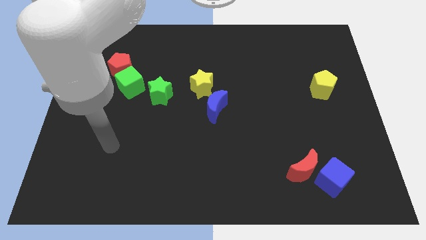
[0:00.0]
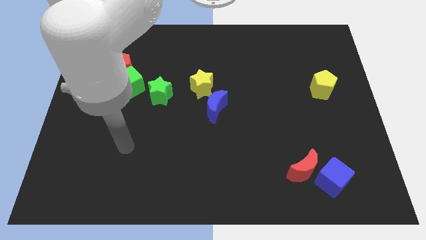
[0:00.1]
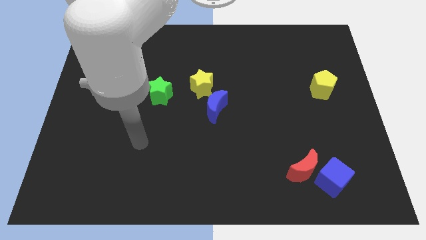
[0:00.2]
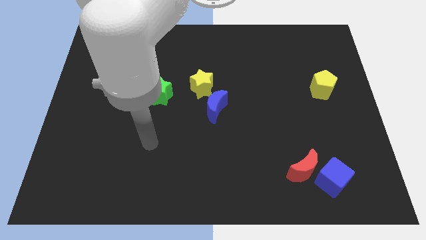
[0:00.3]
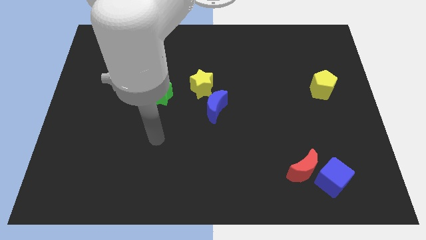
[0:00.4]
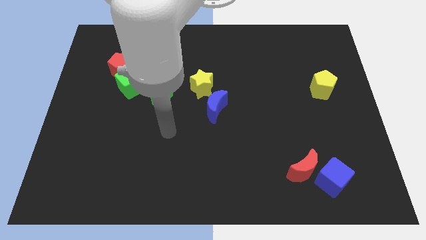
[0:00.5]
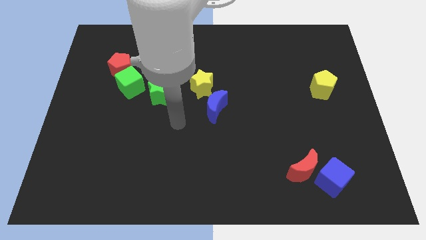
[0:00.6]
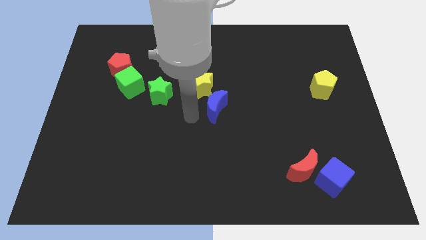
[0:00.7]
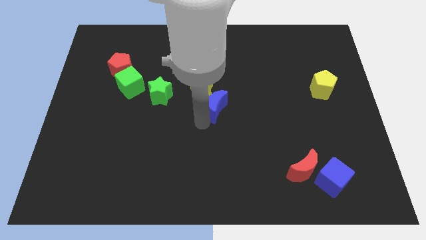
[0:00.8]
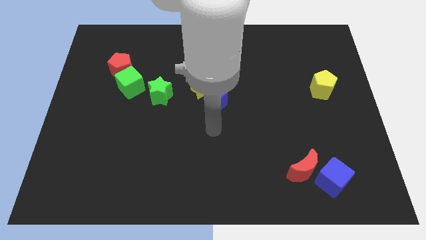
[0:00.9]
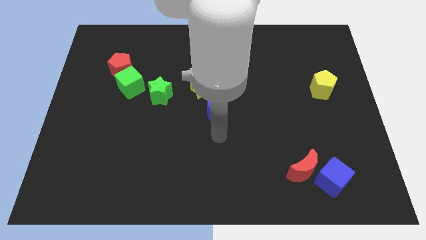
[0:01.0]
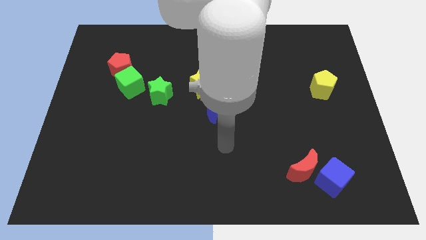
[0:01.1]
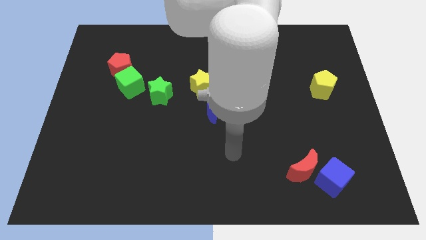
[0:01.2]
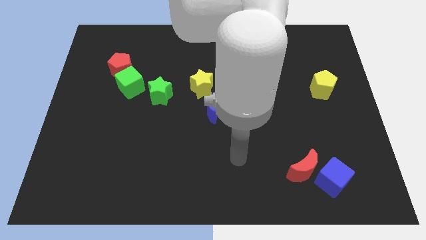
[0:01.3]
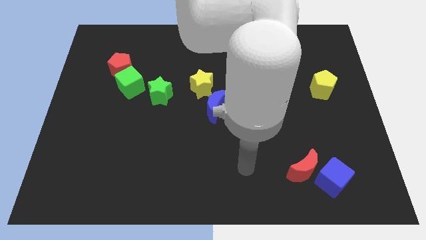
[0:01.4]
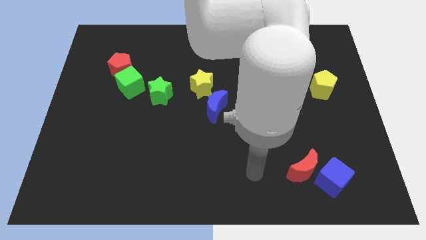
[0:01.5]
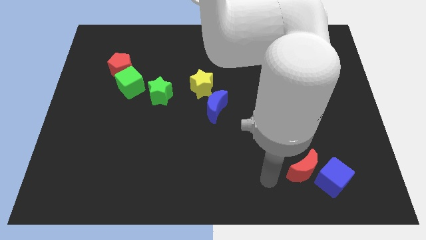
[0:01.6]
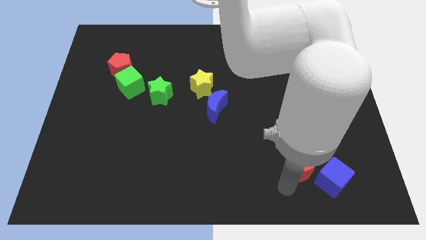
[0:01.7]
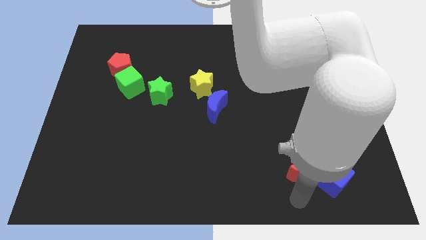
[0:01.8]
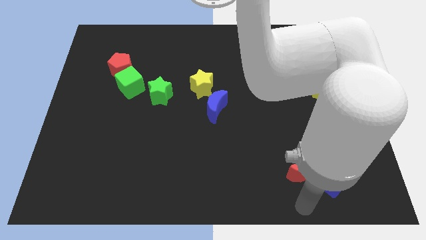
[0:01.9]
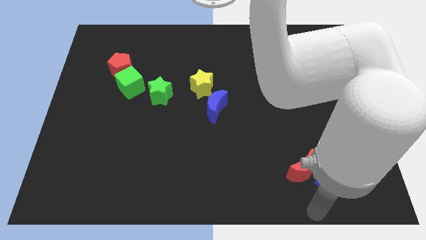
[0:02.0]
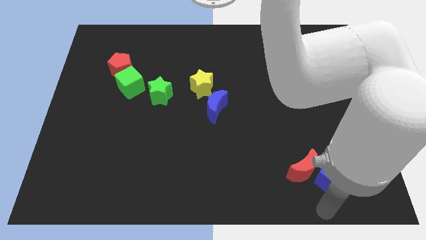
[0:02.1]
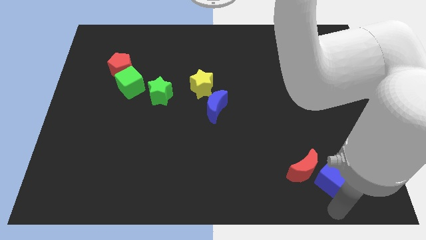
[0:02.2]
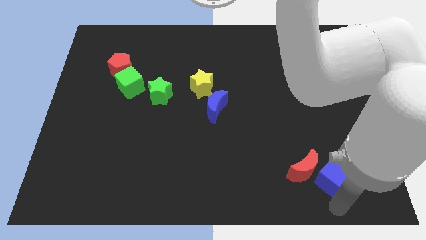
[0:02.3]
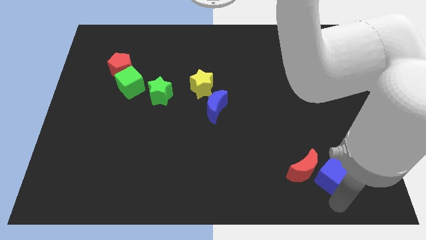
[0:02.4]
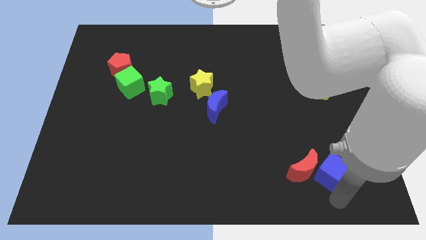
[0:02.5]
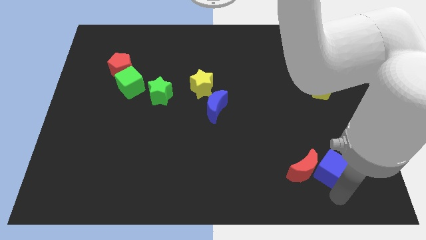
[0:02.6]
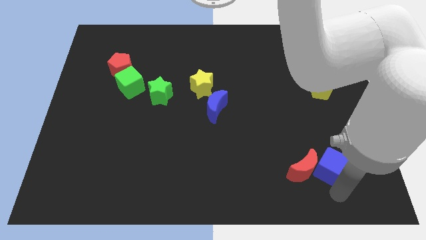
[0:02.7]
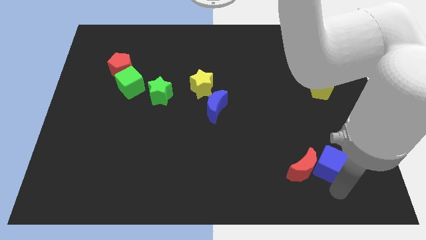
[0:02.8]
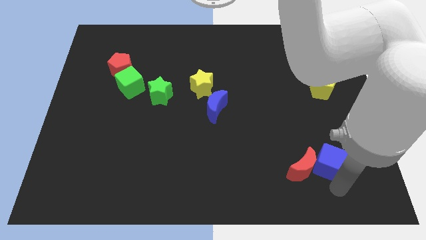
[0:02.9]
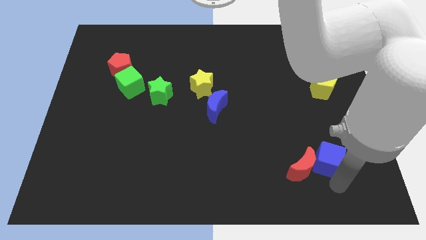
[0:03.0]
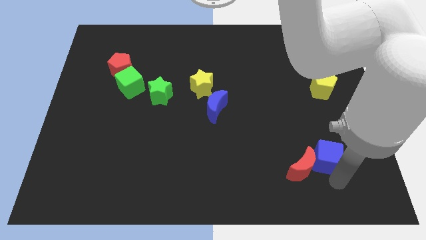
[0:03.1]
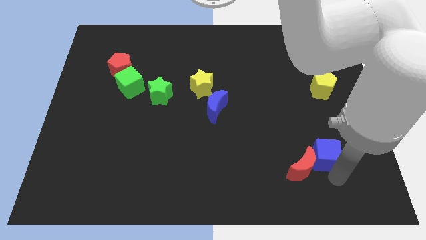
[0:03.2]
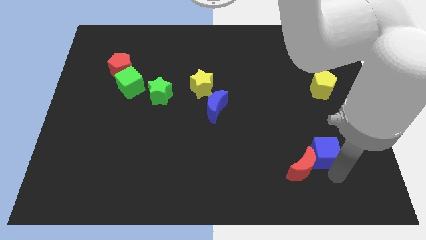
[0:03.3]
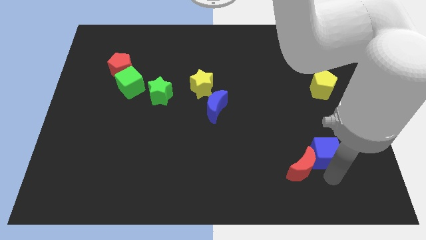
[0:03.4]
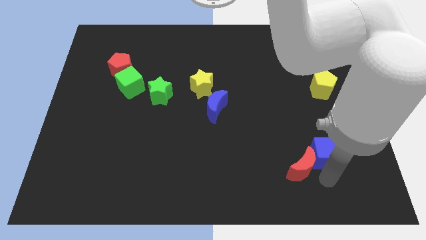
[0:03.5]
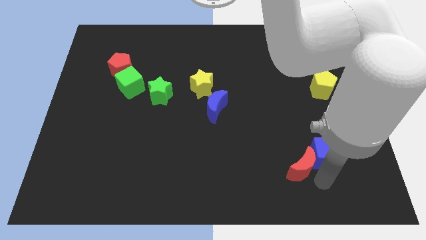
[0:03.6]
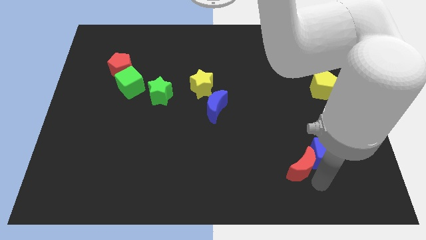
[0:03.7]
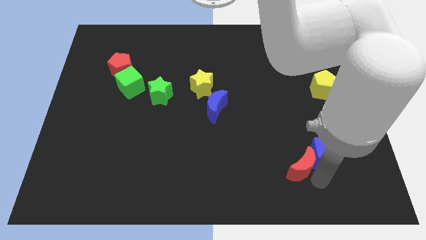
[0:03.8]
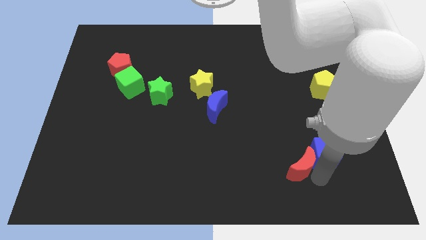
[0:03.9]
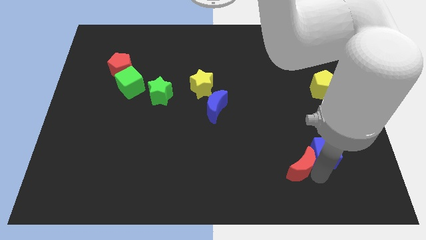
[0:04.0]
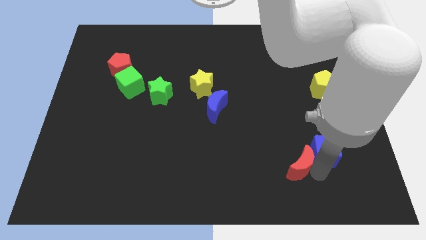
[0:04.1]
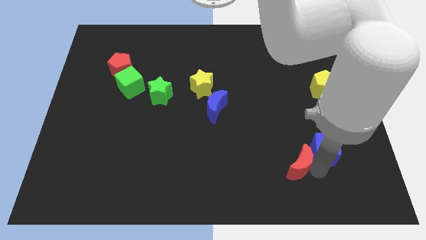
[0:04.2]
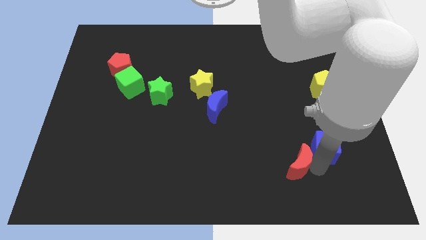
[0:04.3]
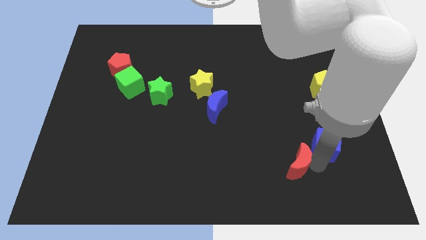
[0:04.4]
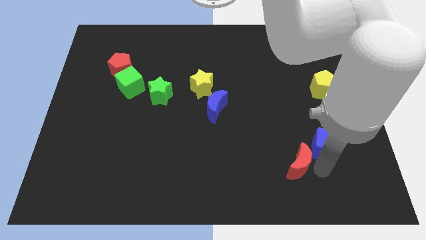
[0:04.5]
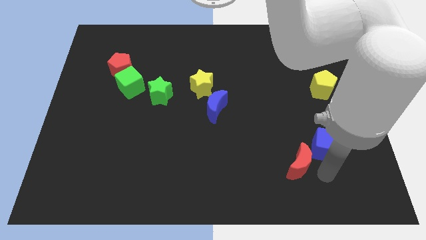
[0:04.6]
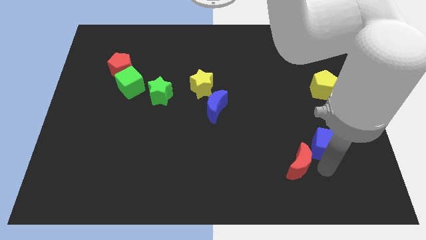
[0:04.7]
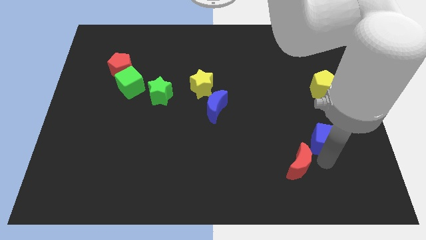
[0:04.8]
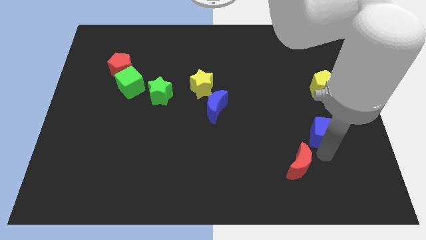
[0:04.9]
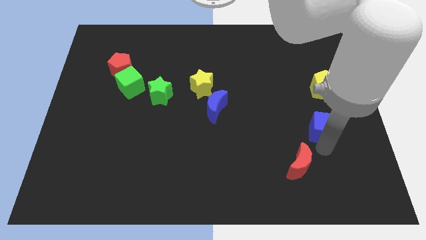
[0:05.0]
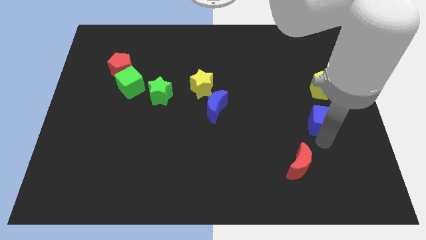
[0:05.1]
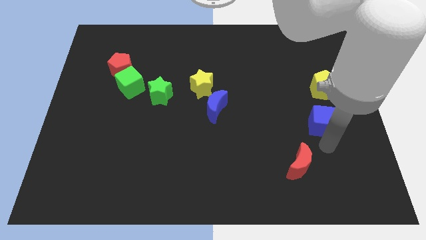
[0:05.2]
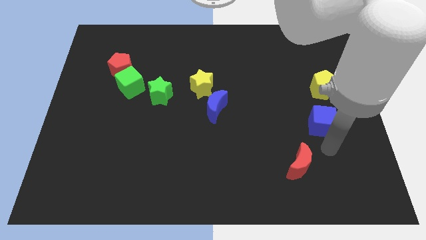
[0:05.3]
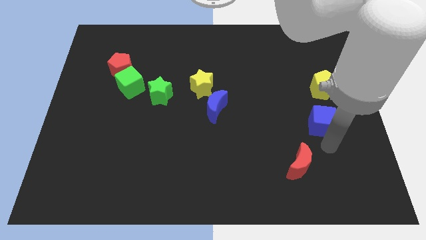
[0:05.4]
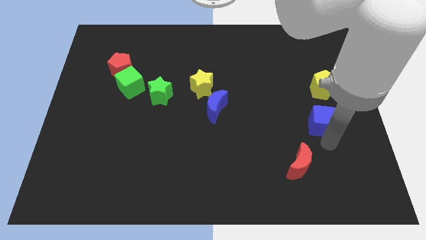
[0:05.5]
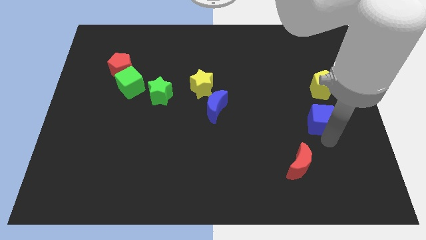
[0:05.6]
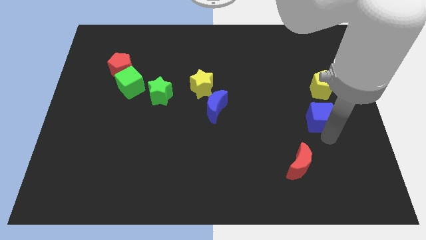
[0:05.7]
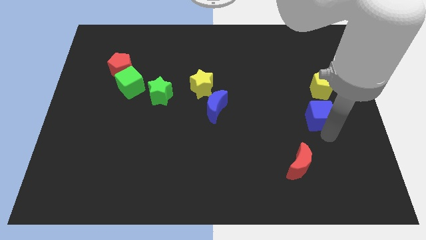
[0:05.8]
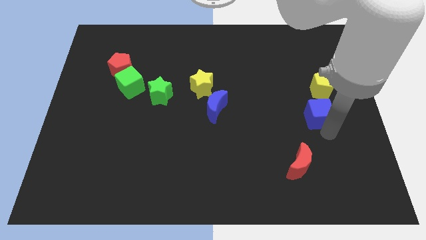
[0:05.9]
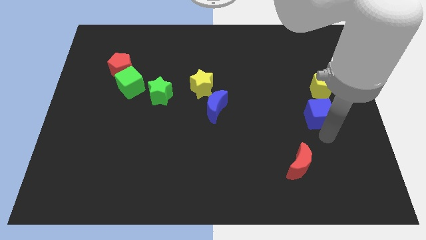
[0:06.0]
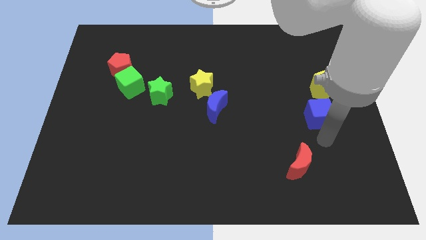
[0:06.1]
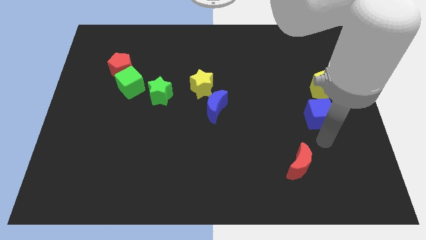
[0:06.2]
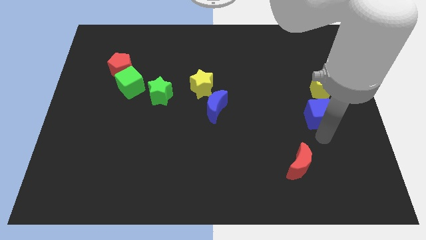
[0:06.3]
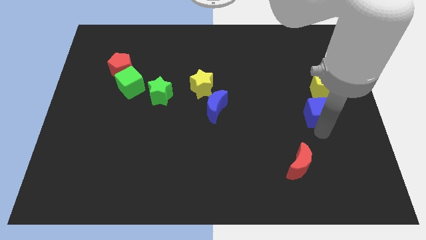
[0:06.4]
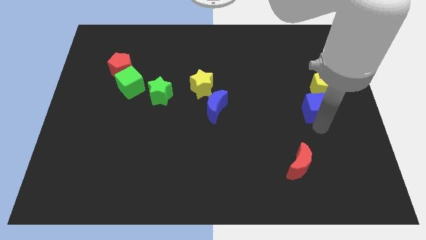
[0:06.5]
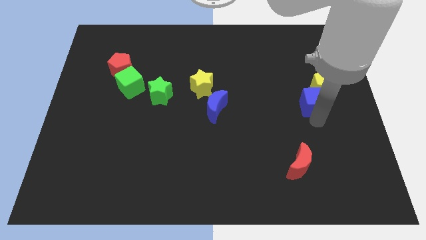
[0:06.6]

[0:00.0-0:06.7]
push the blue cube towards the yellow pentagon
